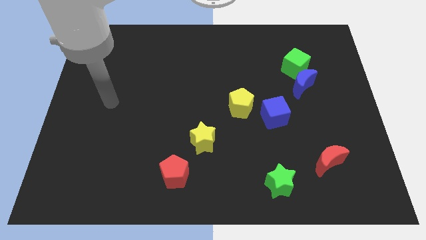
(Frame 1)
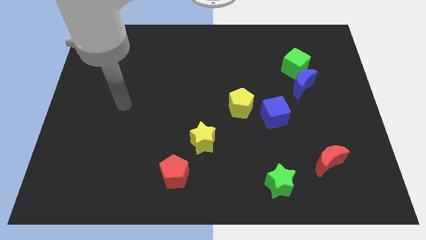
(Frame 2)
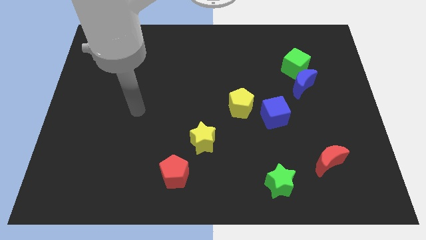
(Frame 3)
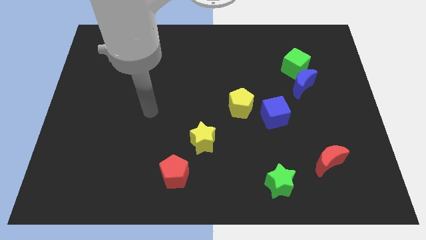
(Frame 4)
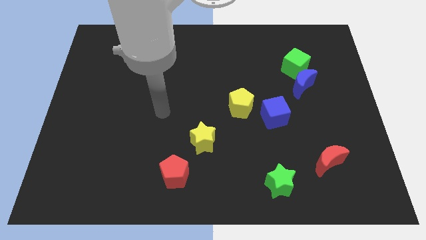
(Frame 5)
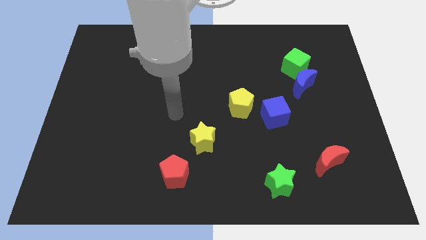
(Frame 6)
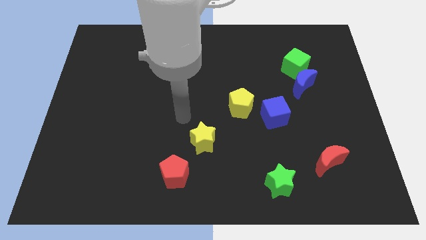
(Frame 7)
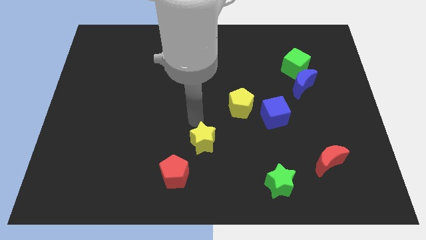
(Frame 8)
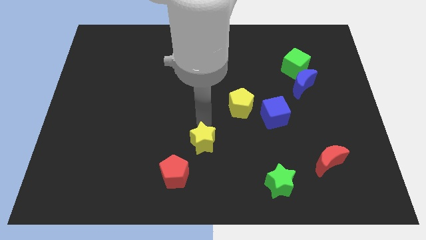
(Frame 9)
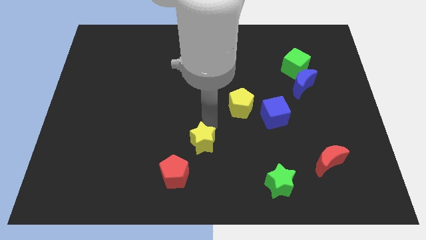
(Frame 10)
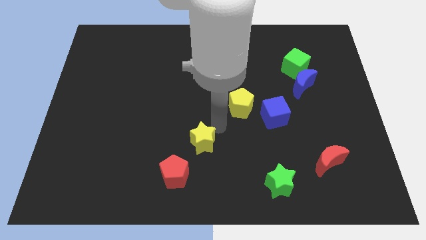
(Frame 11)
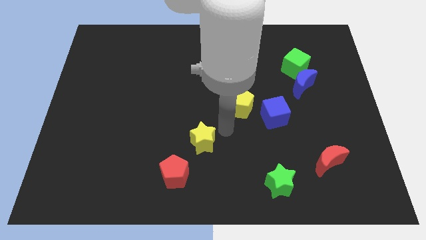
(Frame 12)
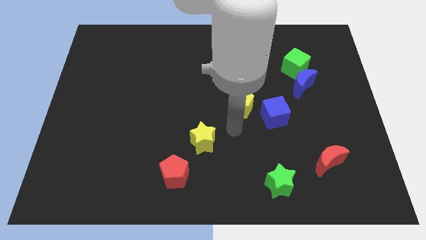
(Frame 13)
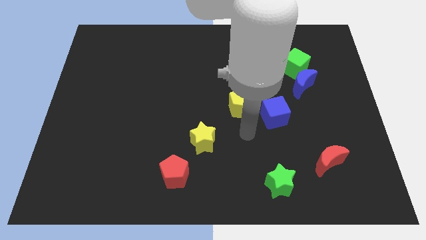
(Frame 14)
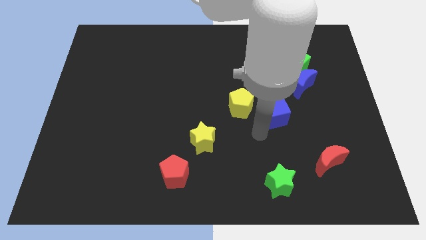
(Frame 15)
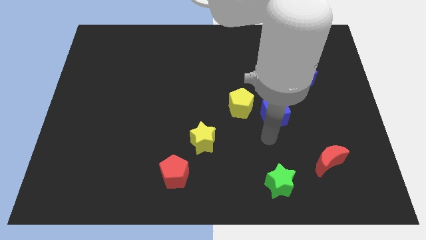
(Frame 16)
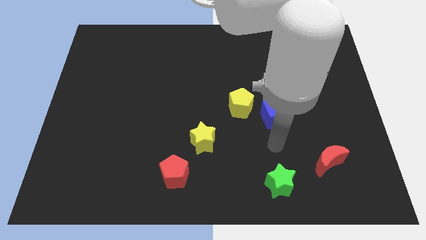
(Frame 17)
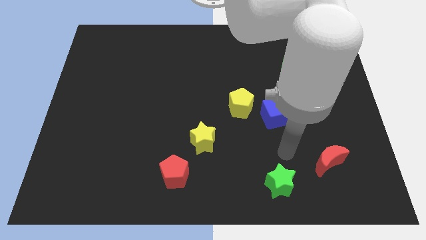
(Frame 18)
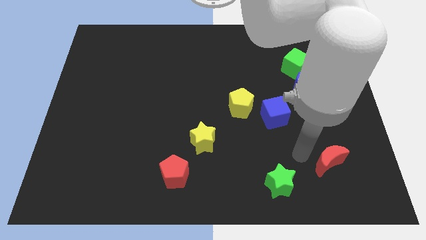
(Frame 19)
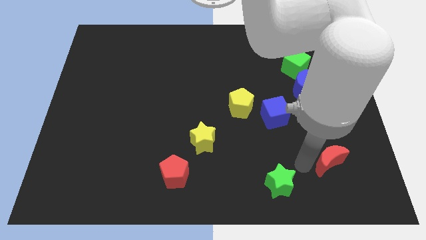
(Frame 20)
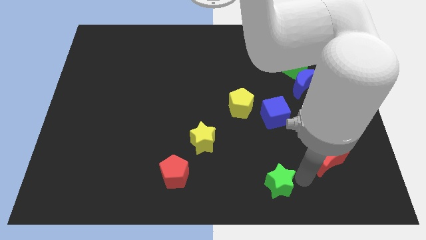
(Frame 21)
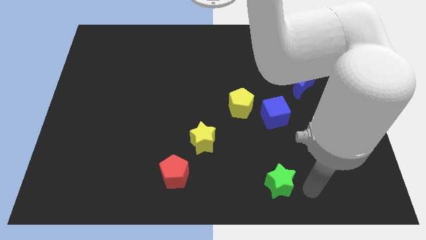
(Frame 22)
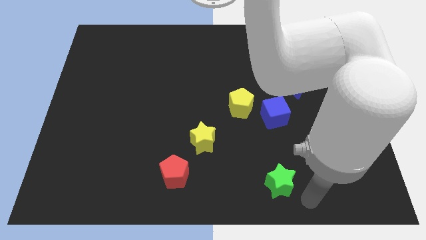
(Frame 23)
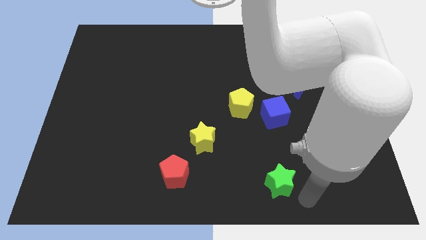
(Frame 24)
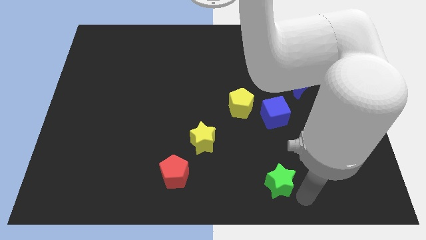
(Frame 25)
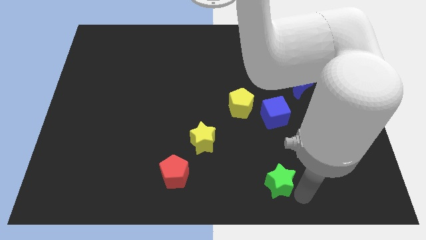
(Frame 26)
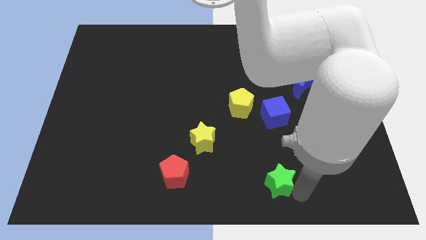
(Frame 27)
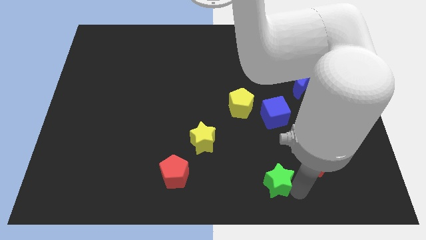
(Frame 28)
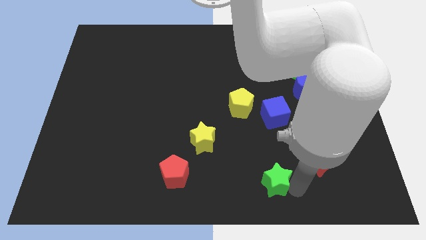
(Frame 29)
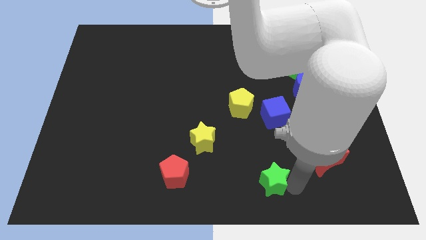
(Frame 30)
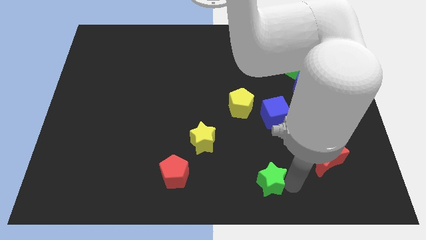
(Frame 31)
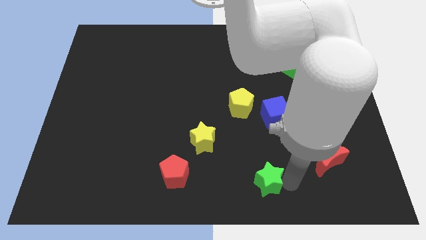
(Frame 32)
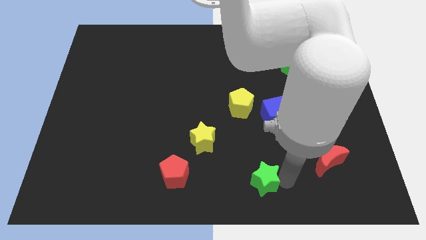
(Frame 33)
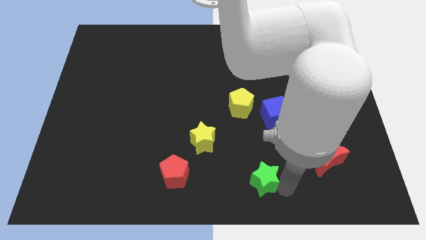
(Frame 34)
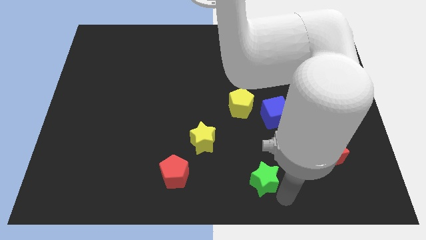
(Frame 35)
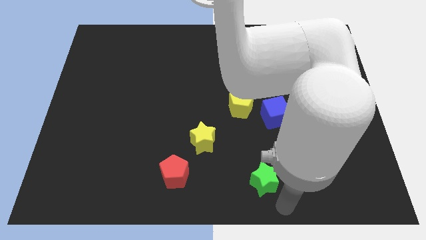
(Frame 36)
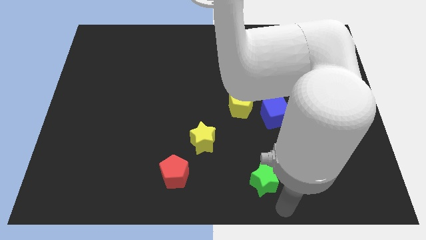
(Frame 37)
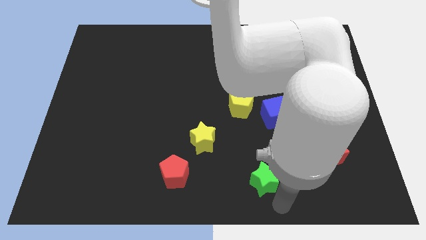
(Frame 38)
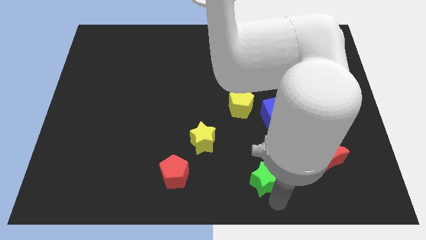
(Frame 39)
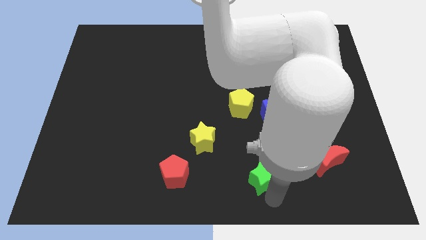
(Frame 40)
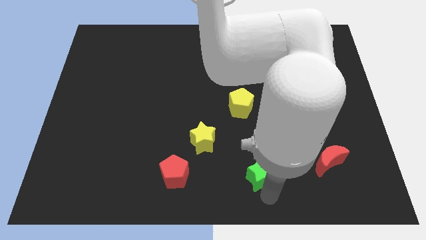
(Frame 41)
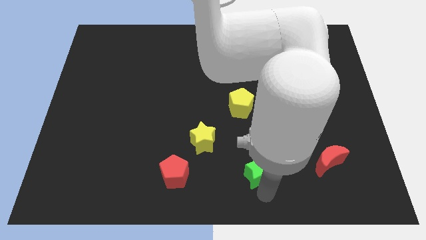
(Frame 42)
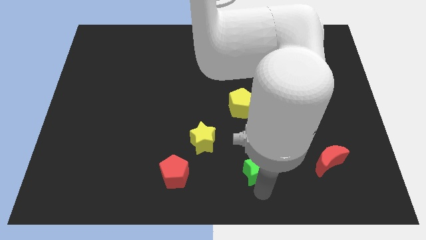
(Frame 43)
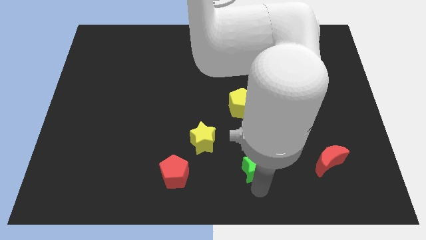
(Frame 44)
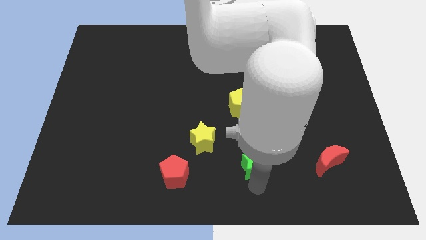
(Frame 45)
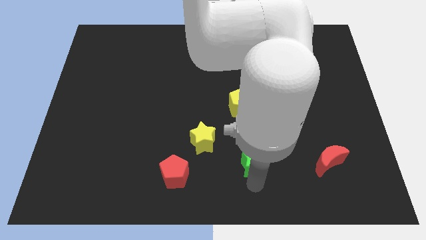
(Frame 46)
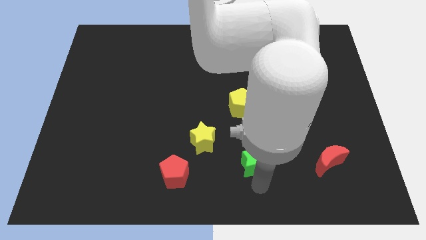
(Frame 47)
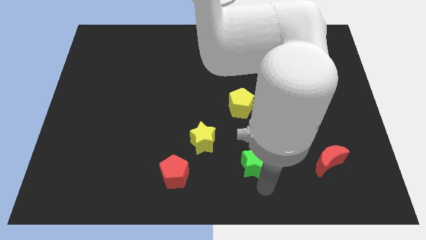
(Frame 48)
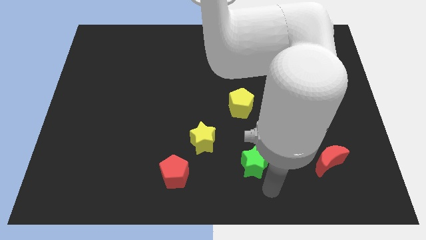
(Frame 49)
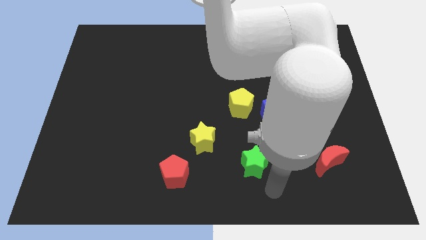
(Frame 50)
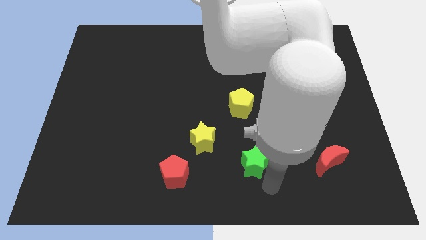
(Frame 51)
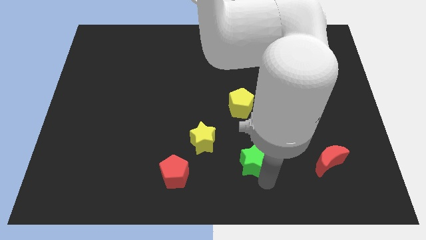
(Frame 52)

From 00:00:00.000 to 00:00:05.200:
slightly push the green star up and then to the left

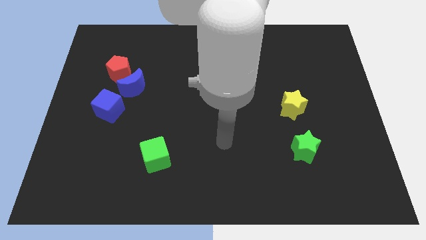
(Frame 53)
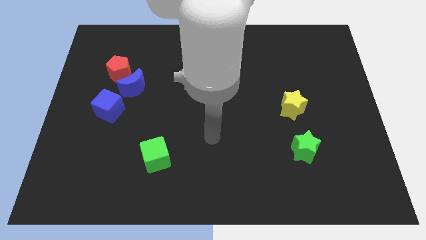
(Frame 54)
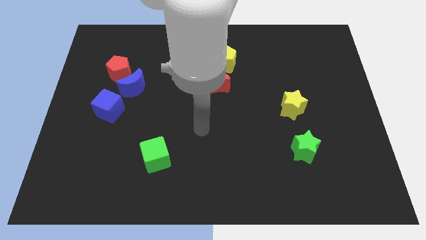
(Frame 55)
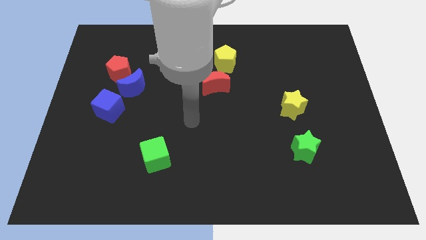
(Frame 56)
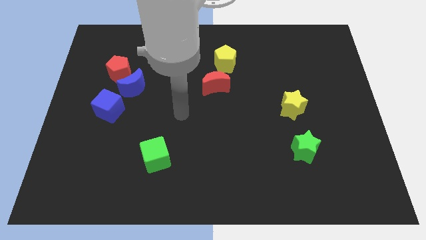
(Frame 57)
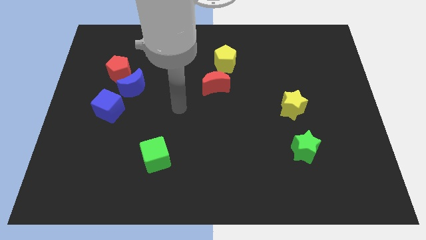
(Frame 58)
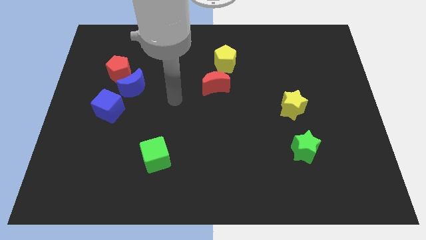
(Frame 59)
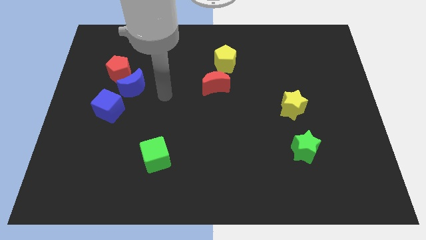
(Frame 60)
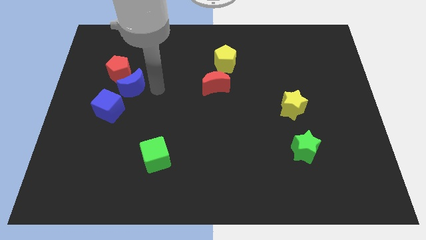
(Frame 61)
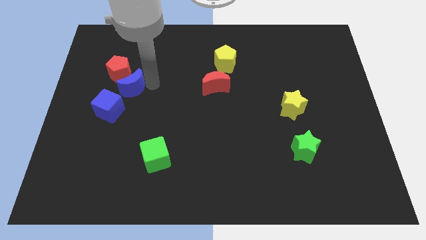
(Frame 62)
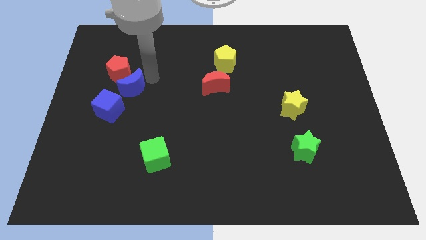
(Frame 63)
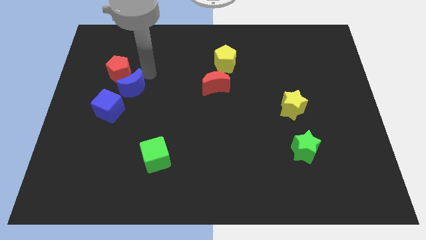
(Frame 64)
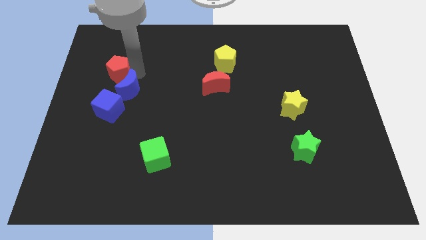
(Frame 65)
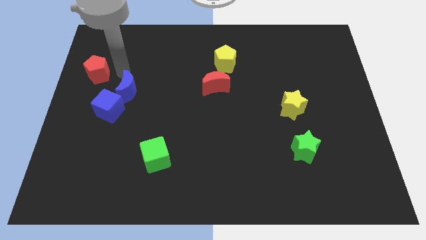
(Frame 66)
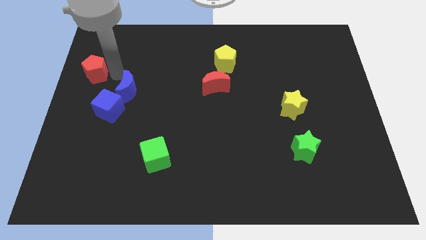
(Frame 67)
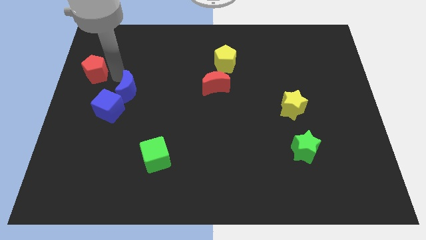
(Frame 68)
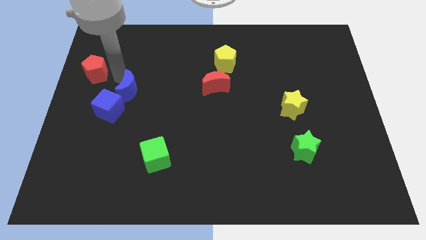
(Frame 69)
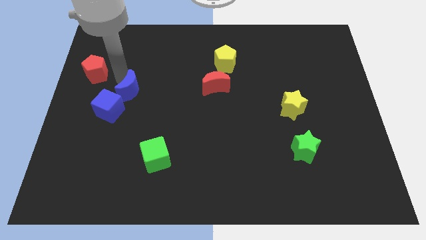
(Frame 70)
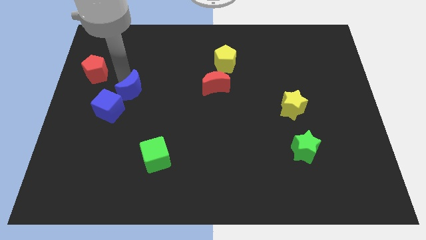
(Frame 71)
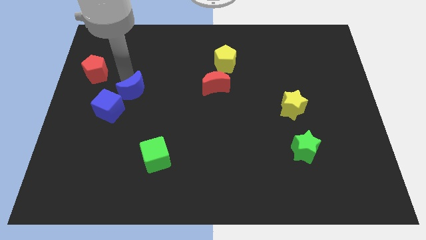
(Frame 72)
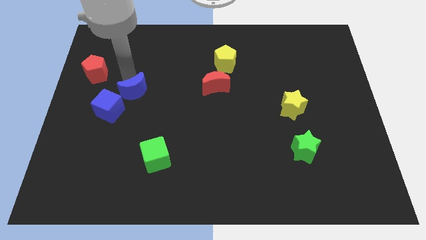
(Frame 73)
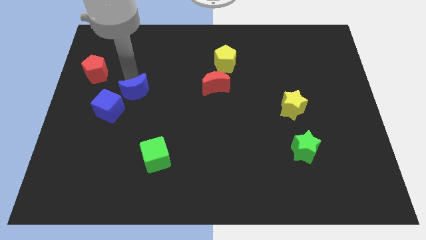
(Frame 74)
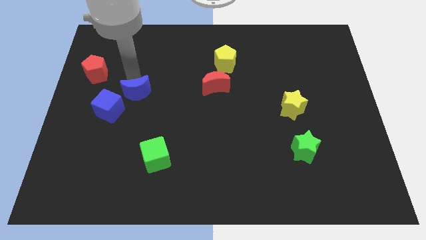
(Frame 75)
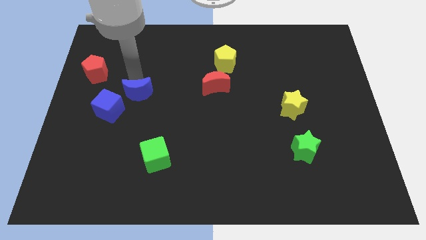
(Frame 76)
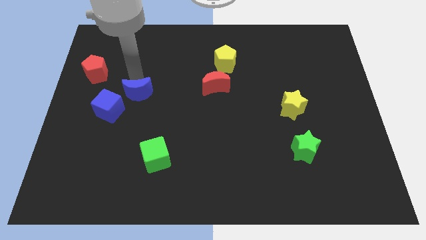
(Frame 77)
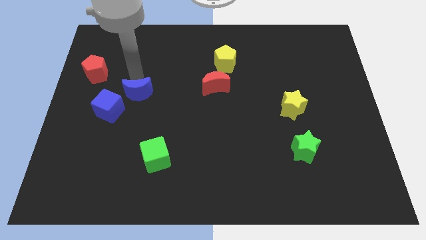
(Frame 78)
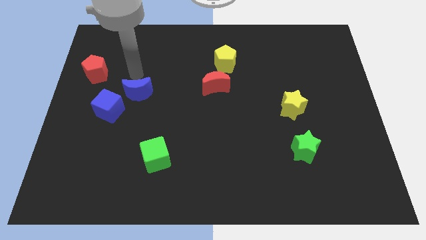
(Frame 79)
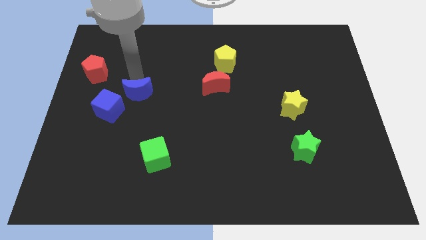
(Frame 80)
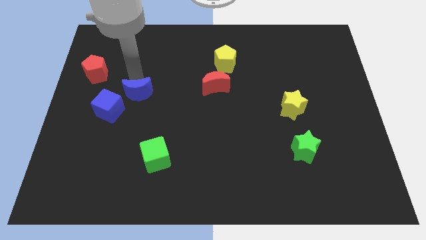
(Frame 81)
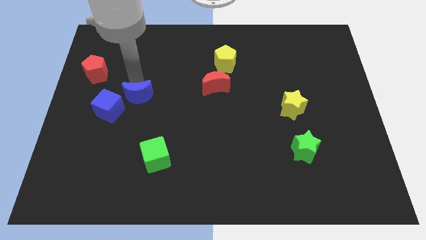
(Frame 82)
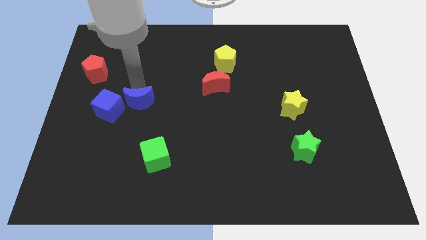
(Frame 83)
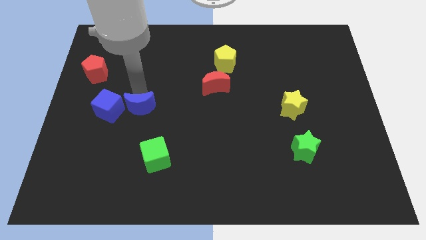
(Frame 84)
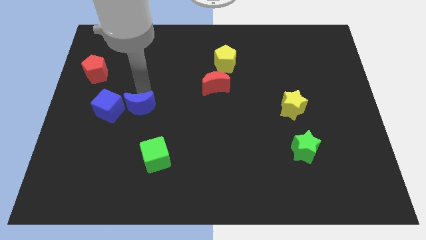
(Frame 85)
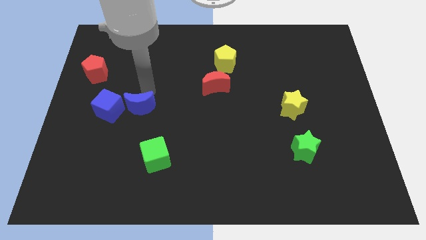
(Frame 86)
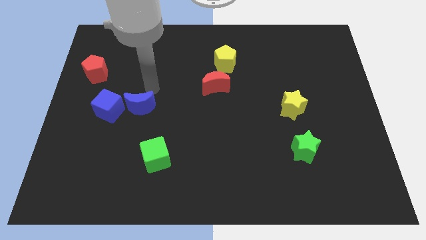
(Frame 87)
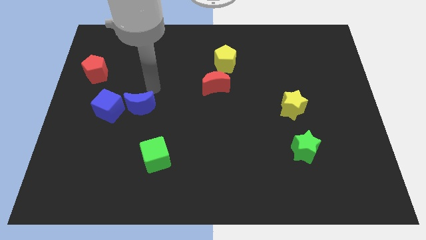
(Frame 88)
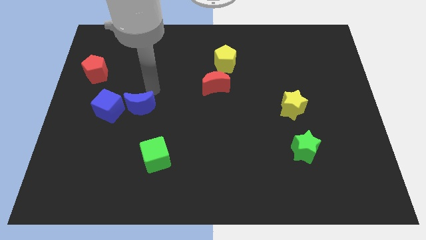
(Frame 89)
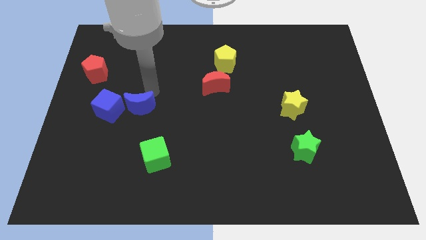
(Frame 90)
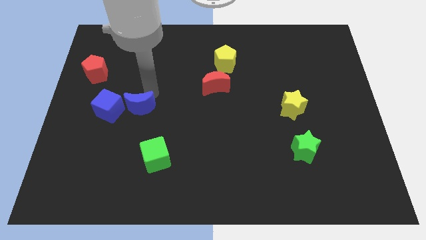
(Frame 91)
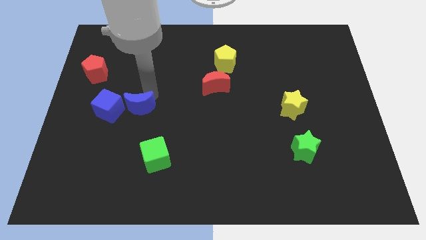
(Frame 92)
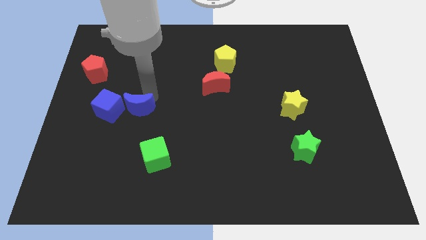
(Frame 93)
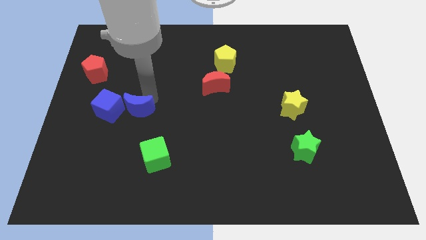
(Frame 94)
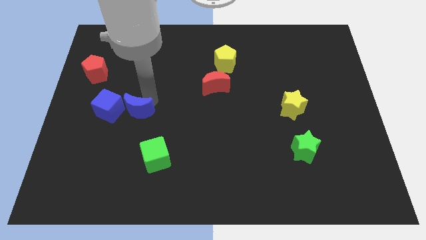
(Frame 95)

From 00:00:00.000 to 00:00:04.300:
slide the blue moon slightly down
